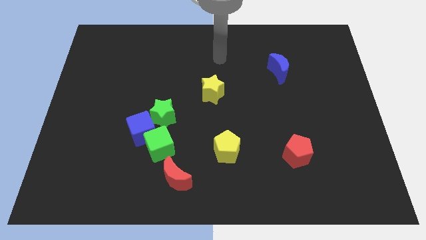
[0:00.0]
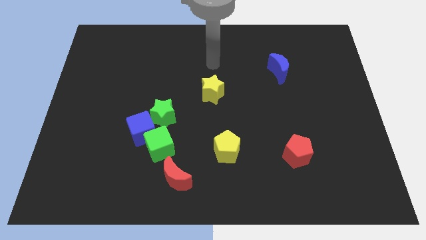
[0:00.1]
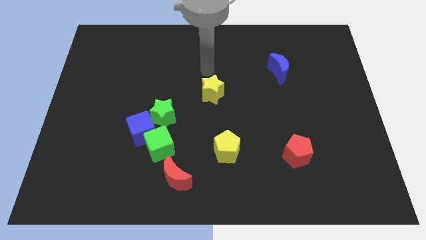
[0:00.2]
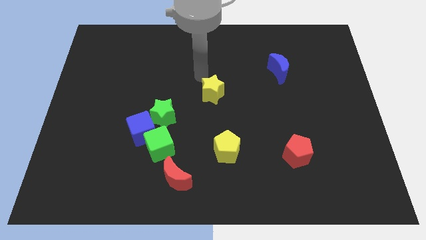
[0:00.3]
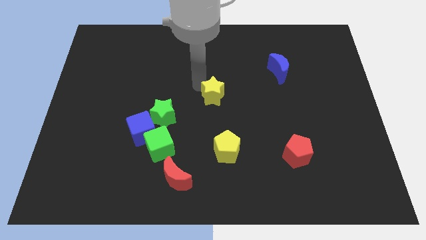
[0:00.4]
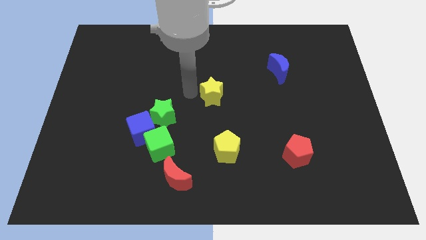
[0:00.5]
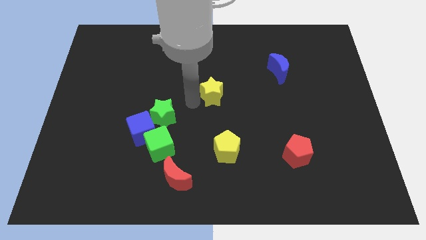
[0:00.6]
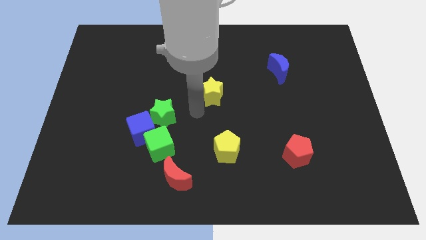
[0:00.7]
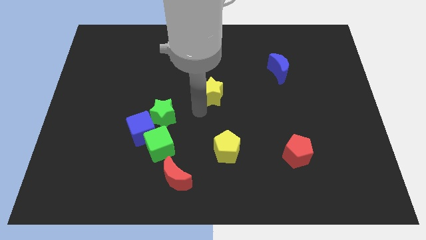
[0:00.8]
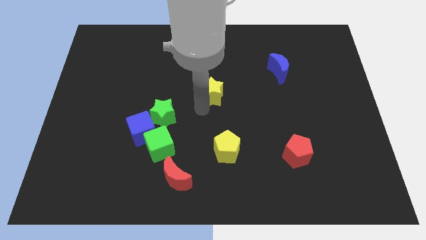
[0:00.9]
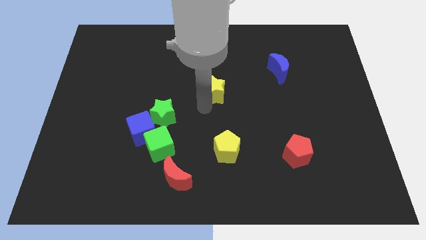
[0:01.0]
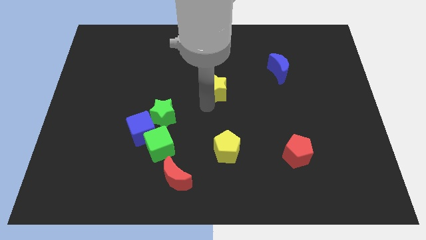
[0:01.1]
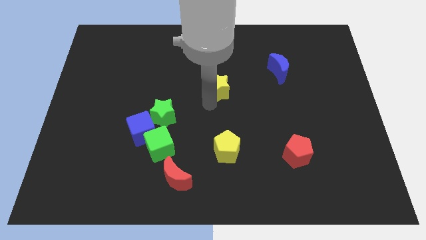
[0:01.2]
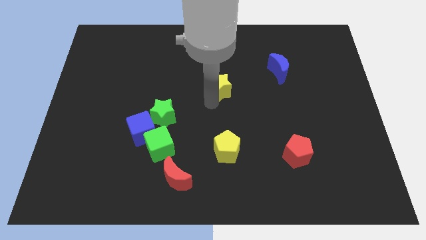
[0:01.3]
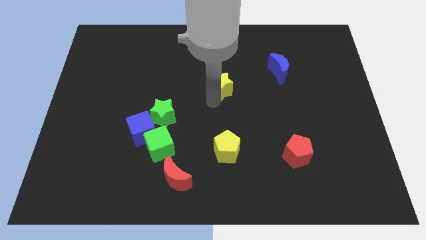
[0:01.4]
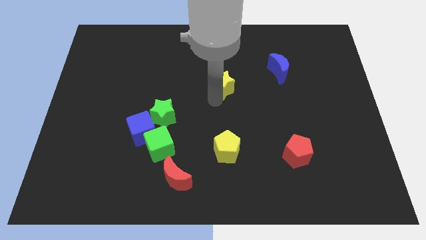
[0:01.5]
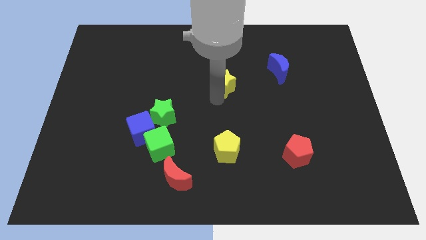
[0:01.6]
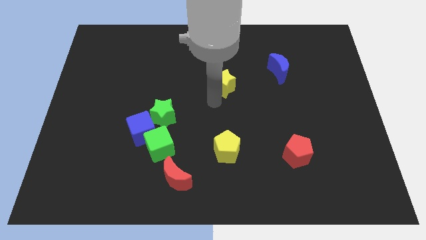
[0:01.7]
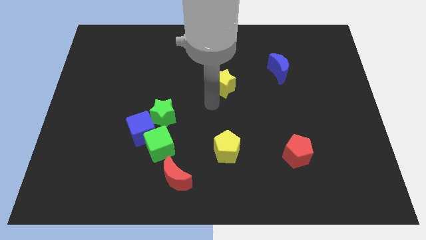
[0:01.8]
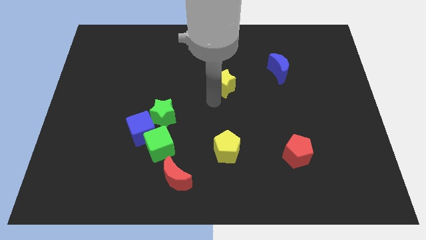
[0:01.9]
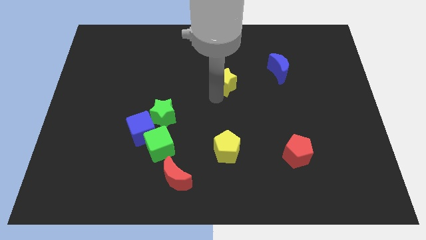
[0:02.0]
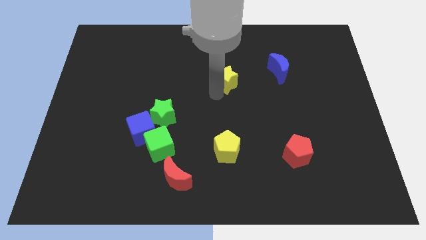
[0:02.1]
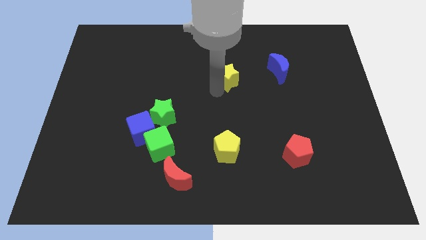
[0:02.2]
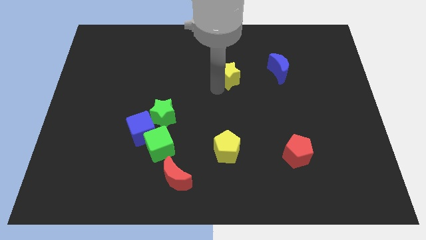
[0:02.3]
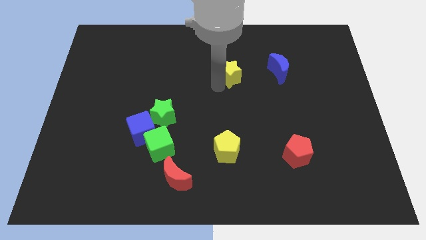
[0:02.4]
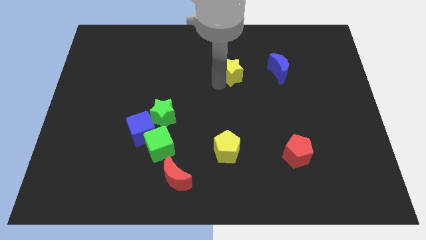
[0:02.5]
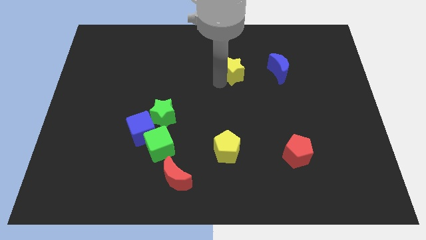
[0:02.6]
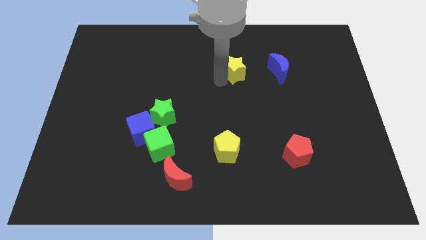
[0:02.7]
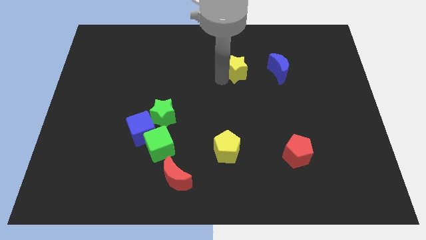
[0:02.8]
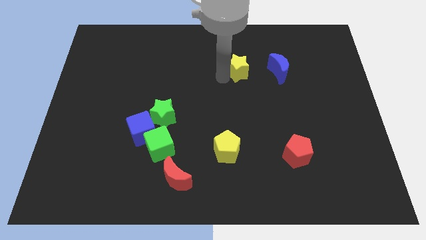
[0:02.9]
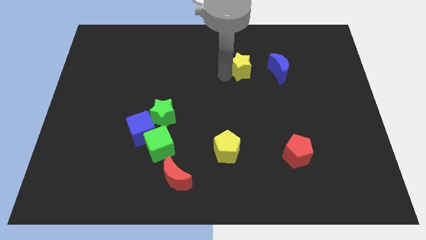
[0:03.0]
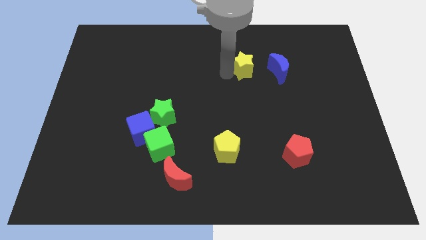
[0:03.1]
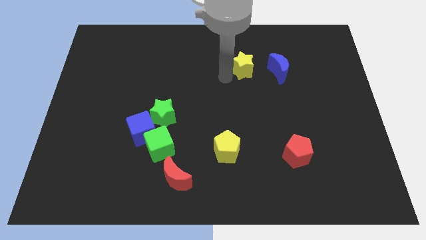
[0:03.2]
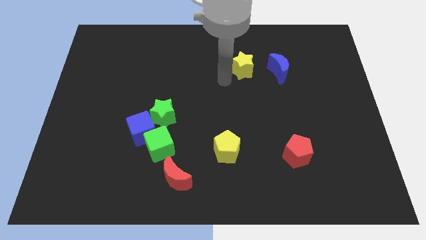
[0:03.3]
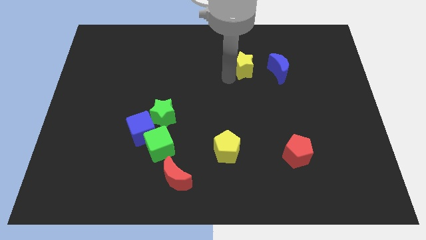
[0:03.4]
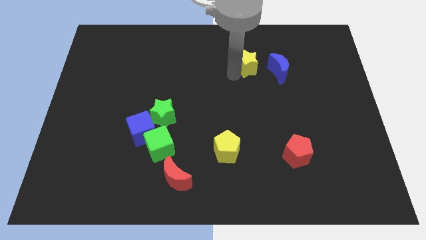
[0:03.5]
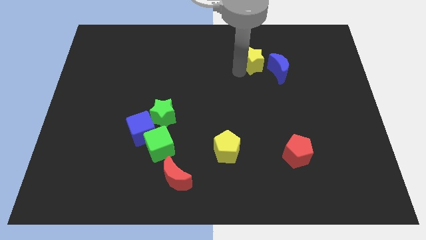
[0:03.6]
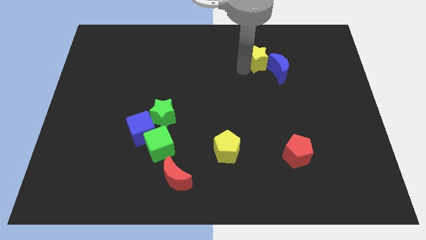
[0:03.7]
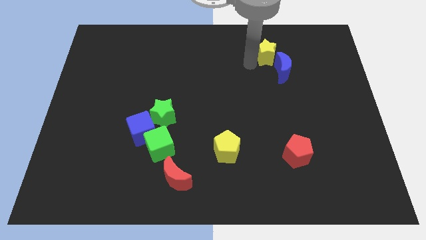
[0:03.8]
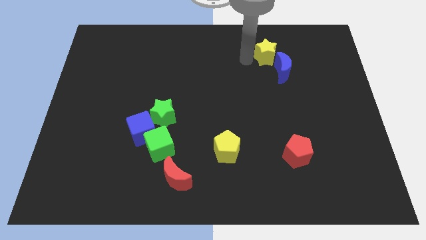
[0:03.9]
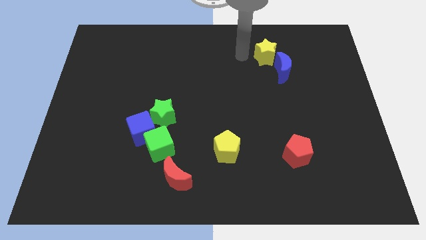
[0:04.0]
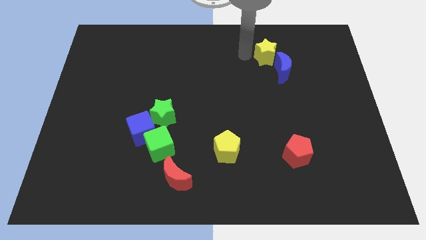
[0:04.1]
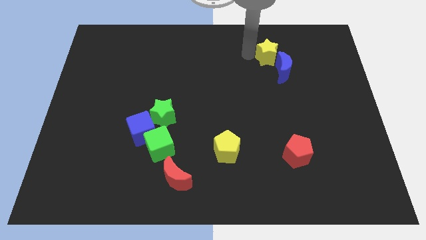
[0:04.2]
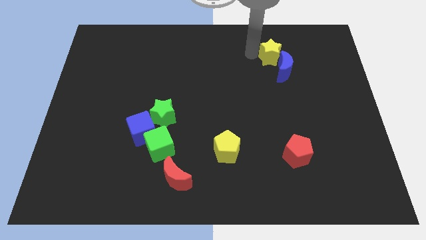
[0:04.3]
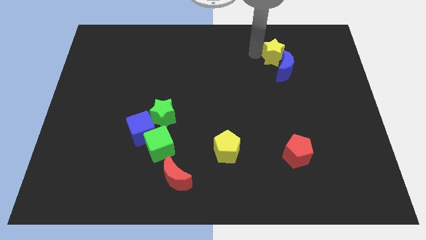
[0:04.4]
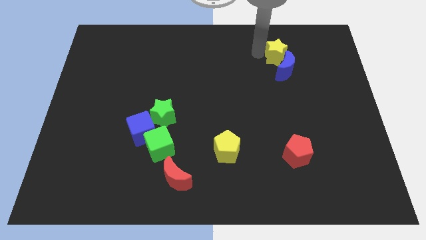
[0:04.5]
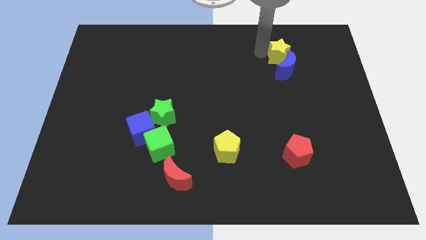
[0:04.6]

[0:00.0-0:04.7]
slide the yellow star to the top right of the blue moon

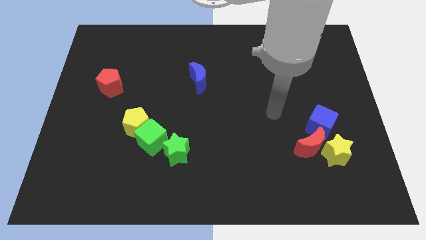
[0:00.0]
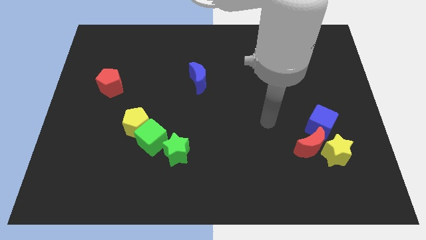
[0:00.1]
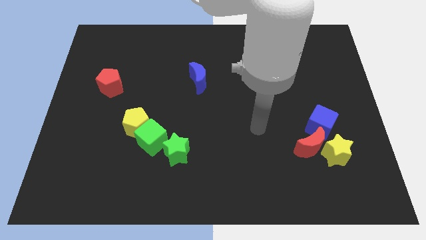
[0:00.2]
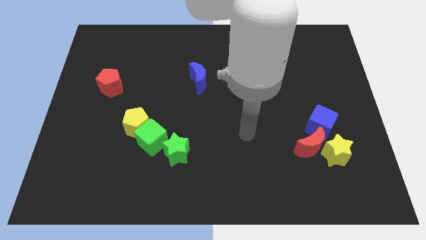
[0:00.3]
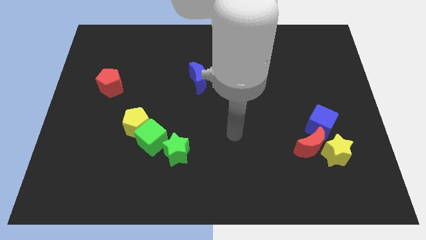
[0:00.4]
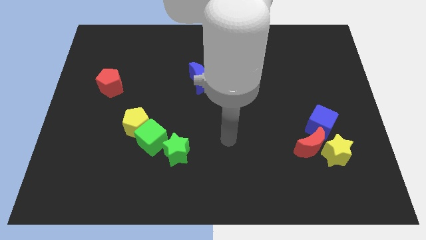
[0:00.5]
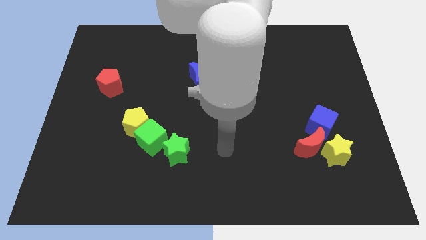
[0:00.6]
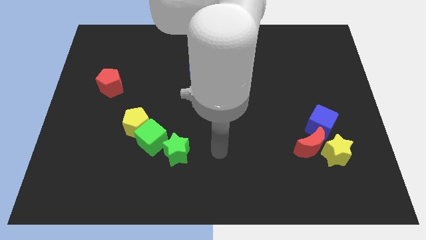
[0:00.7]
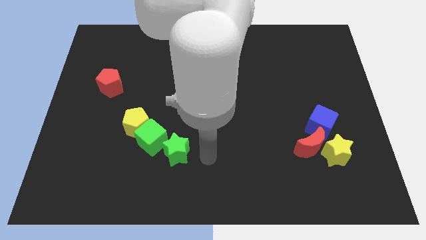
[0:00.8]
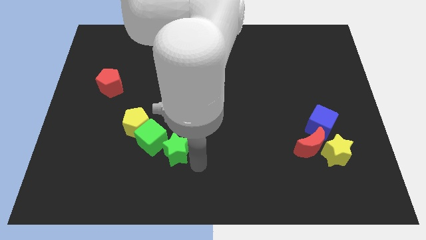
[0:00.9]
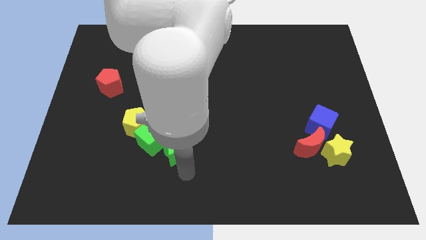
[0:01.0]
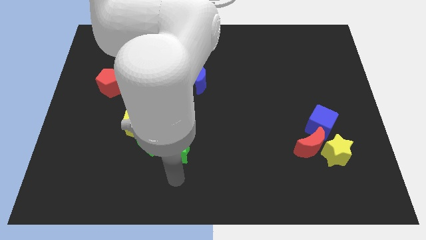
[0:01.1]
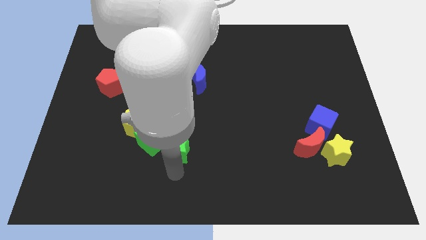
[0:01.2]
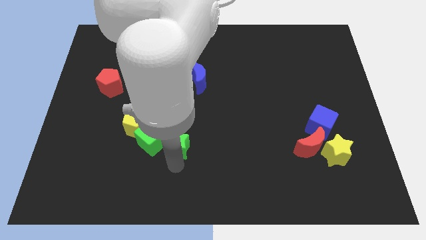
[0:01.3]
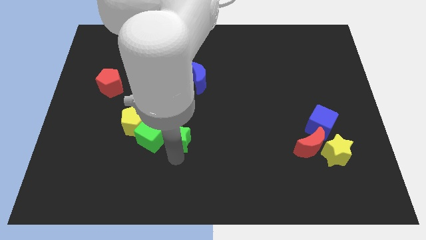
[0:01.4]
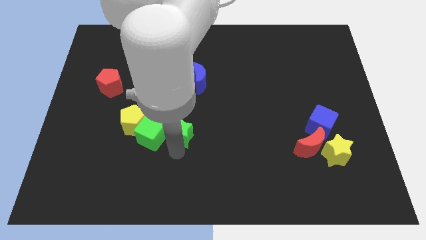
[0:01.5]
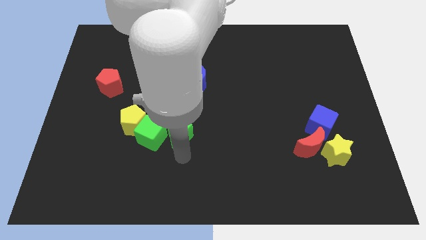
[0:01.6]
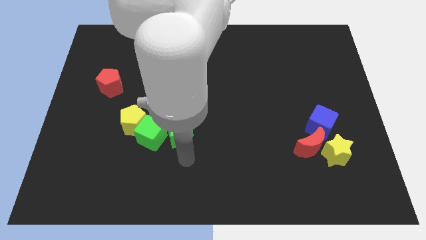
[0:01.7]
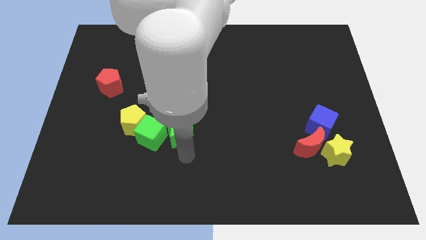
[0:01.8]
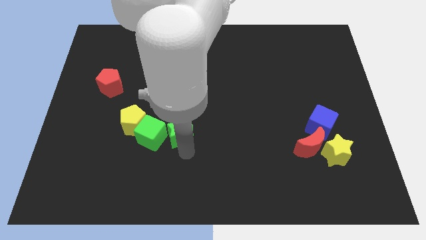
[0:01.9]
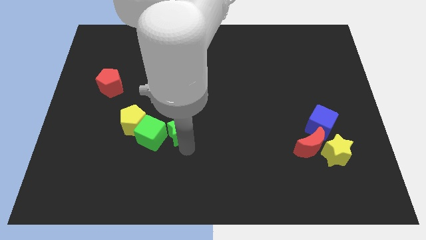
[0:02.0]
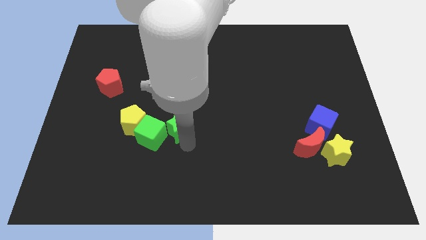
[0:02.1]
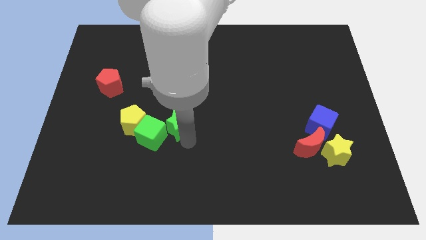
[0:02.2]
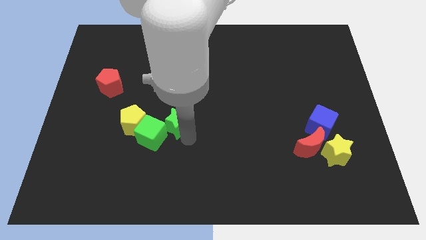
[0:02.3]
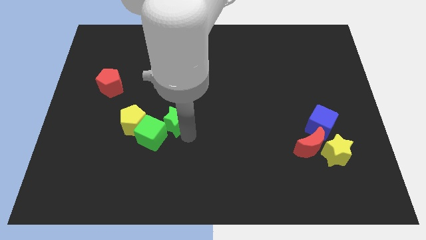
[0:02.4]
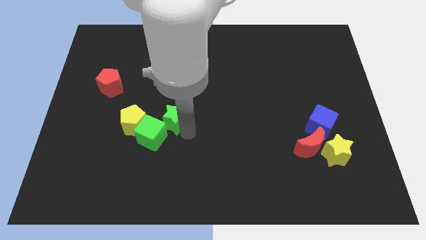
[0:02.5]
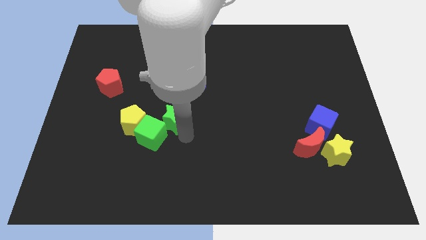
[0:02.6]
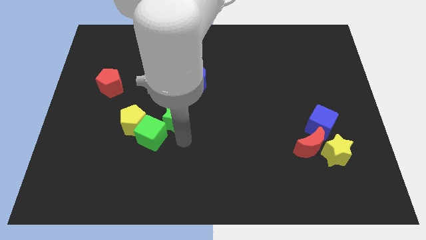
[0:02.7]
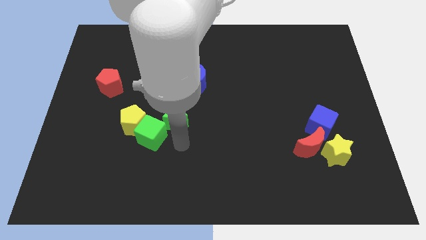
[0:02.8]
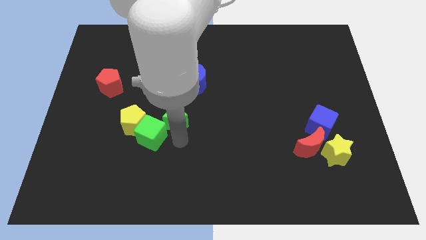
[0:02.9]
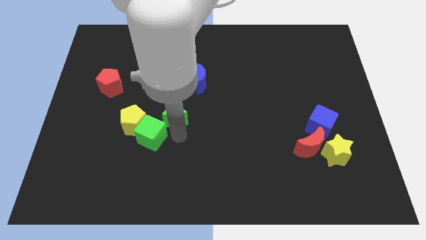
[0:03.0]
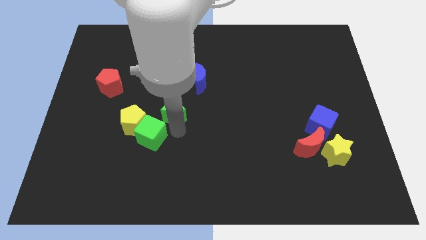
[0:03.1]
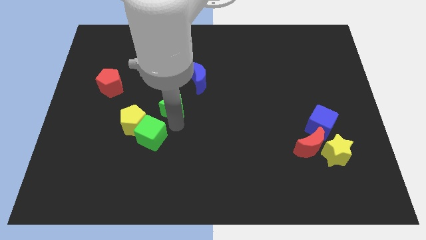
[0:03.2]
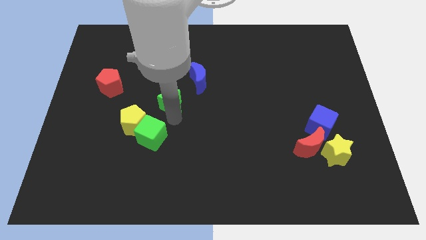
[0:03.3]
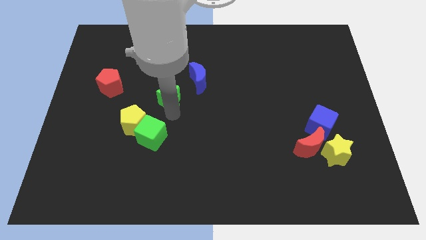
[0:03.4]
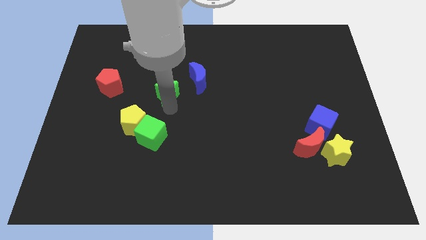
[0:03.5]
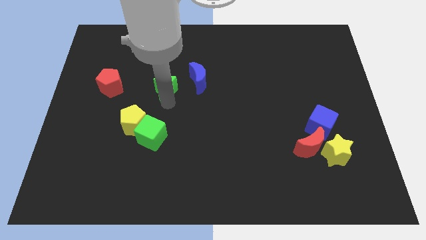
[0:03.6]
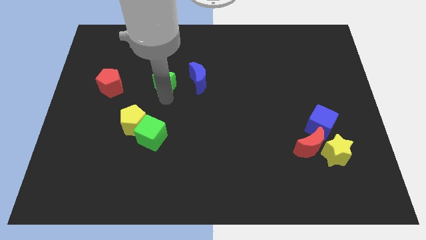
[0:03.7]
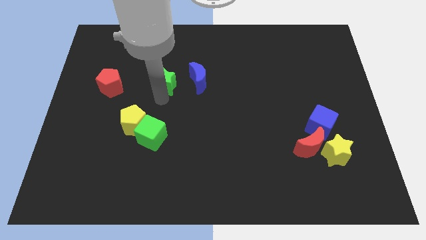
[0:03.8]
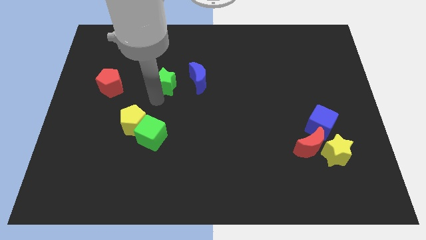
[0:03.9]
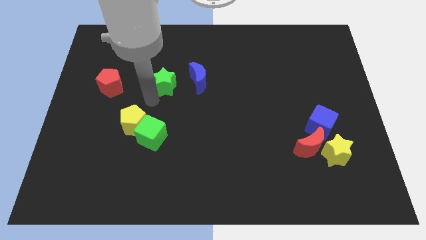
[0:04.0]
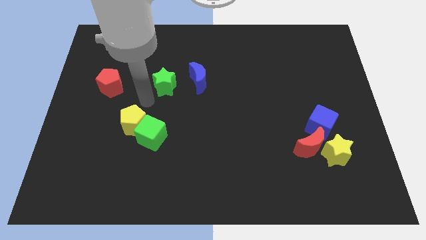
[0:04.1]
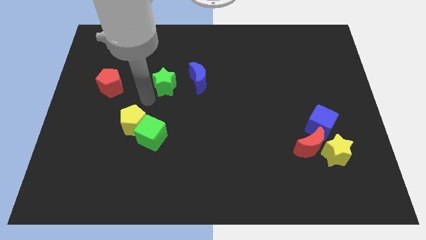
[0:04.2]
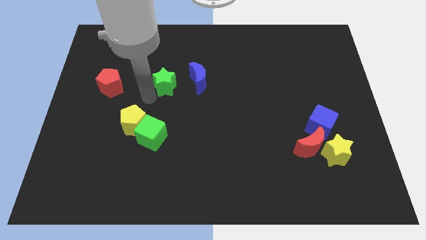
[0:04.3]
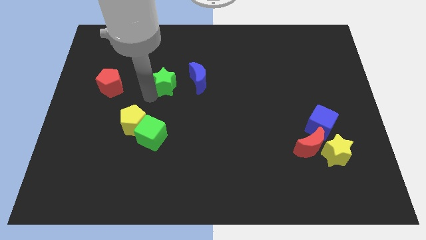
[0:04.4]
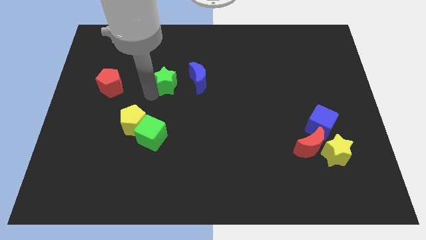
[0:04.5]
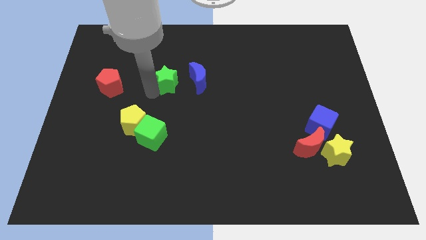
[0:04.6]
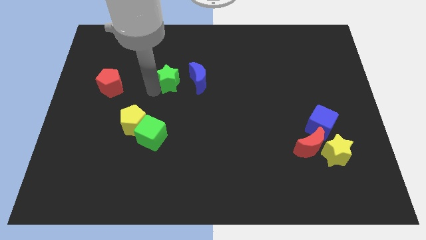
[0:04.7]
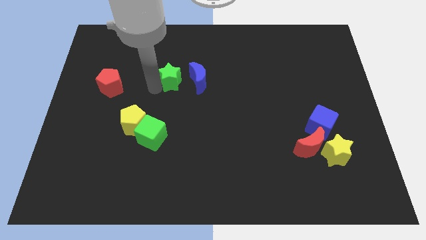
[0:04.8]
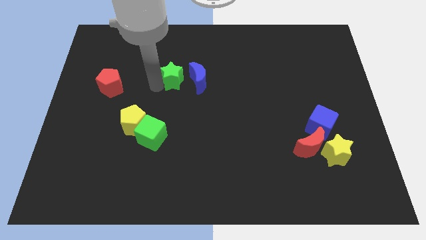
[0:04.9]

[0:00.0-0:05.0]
put the green star diagonally up and to the left of the blue moon
